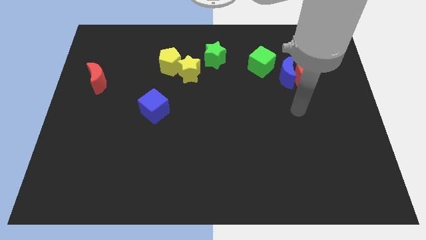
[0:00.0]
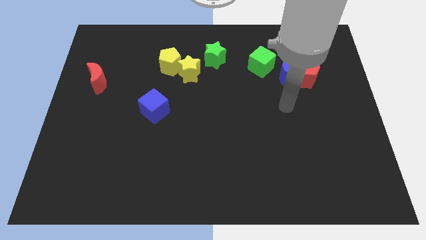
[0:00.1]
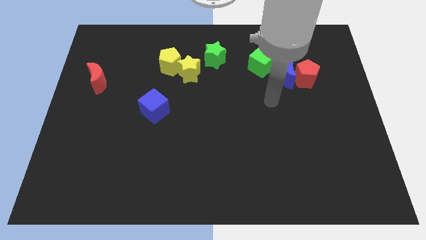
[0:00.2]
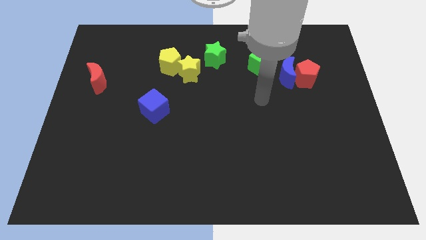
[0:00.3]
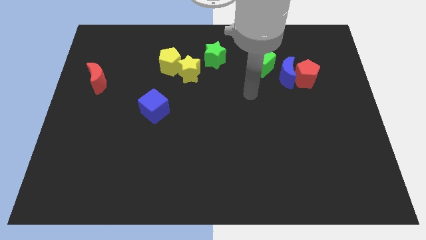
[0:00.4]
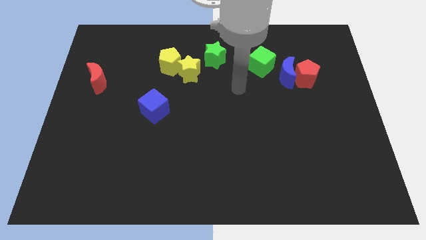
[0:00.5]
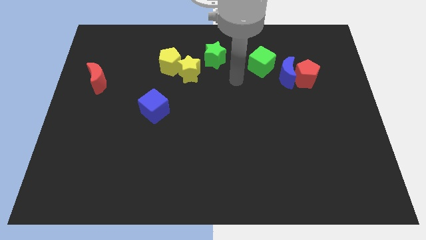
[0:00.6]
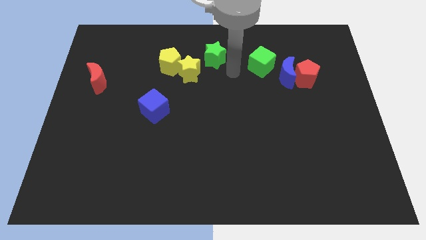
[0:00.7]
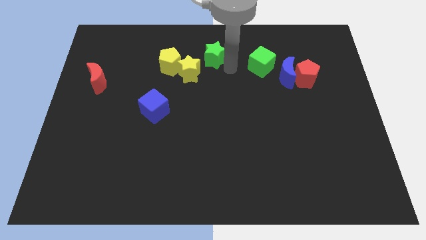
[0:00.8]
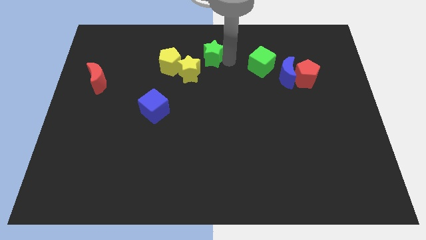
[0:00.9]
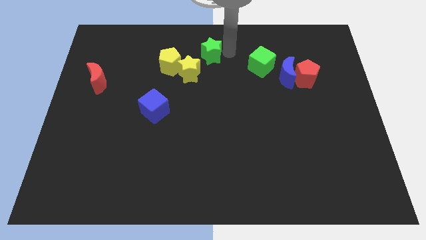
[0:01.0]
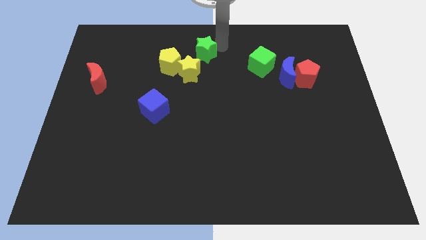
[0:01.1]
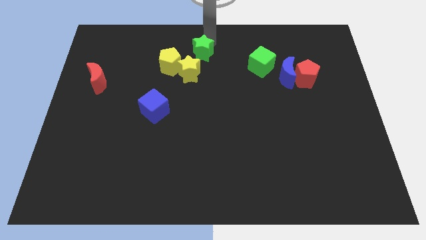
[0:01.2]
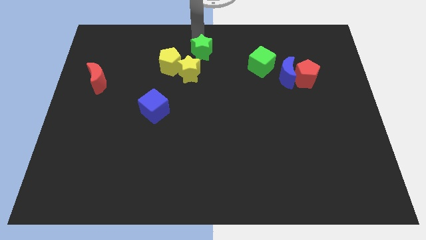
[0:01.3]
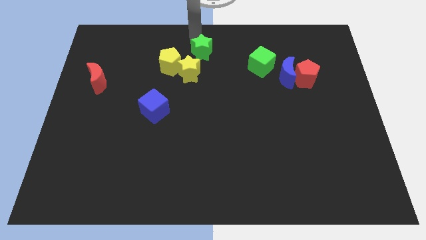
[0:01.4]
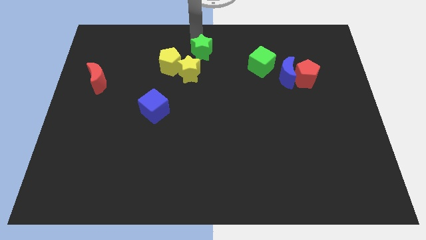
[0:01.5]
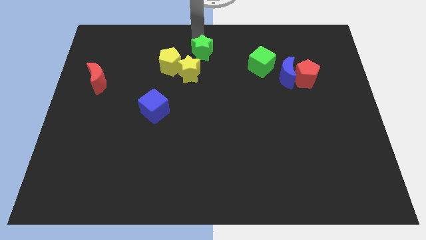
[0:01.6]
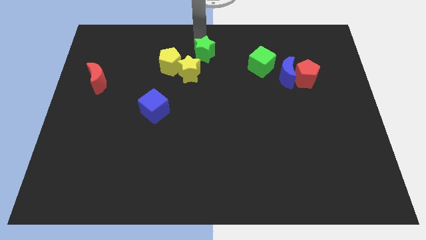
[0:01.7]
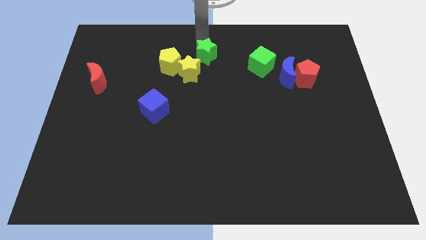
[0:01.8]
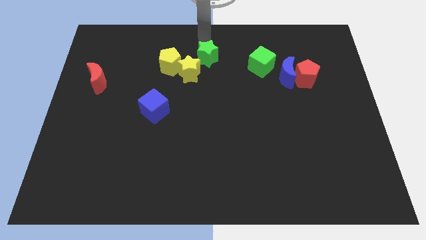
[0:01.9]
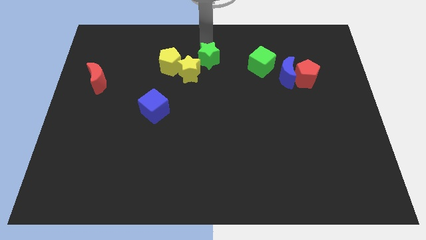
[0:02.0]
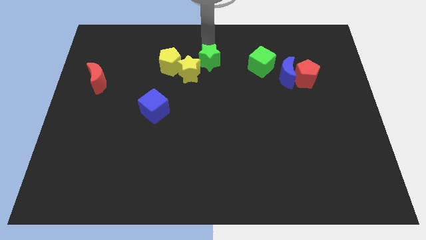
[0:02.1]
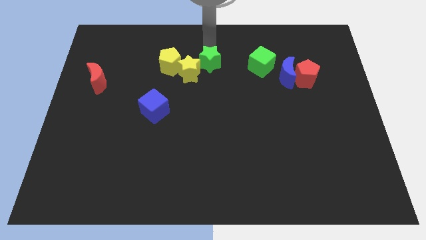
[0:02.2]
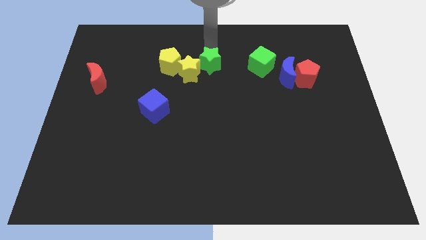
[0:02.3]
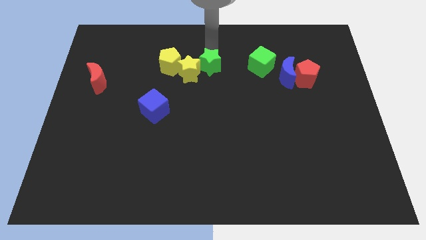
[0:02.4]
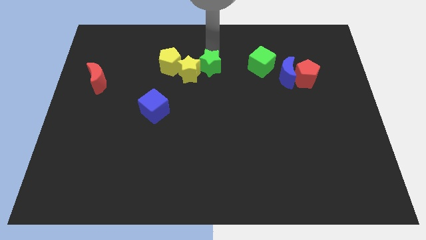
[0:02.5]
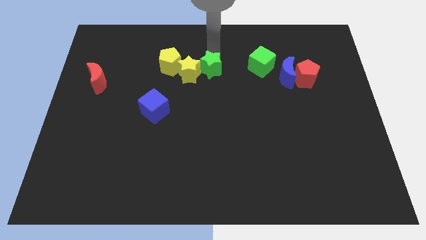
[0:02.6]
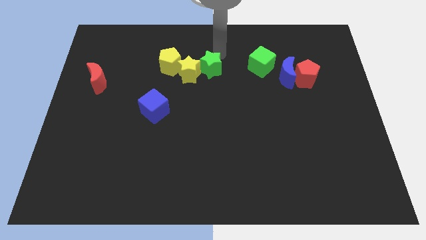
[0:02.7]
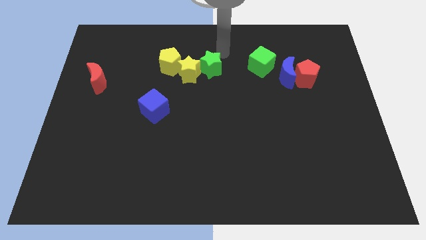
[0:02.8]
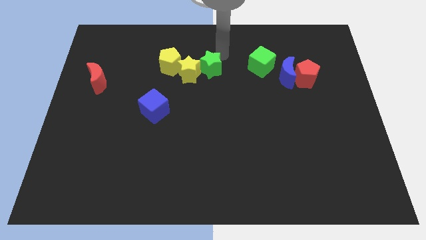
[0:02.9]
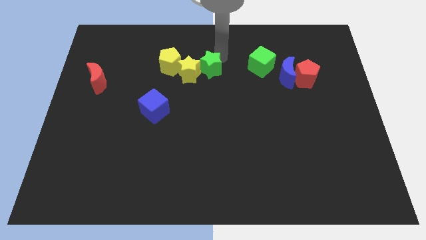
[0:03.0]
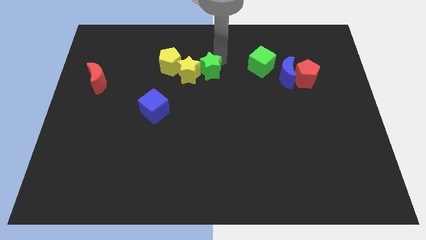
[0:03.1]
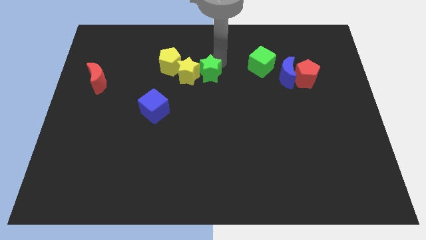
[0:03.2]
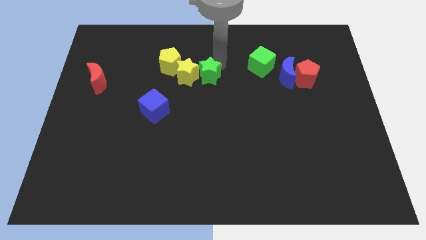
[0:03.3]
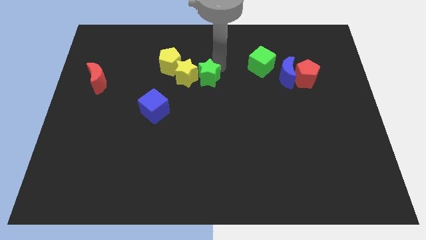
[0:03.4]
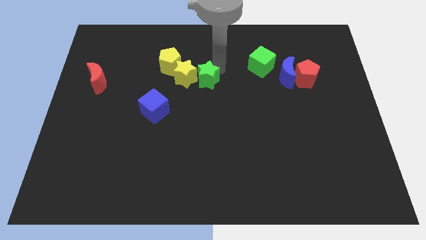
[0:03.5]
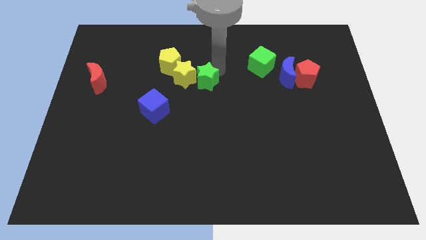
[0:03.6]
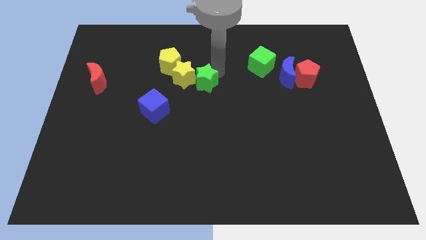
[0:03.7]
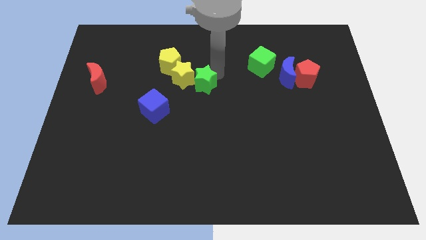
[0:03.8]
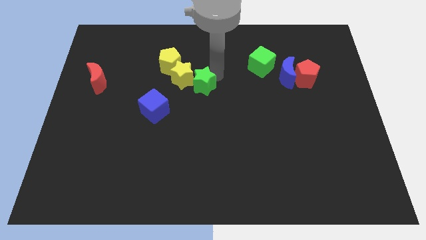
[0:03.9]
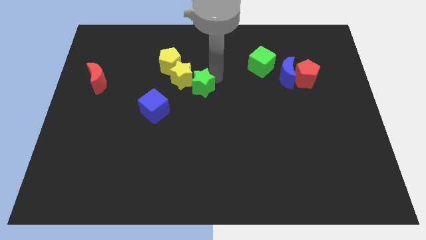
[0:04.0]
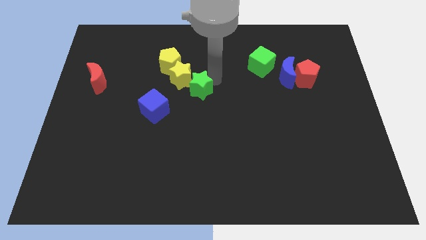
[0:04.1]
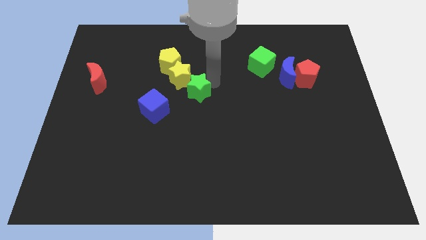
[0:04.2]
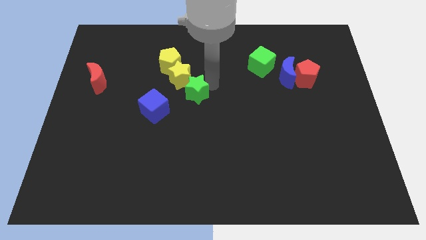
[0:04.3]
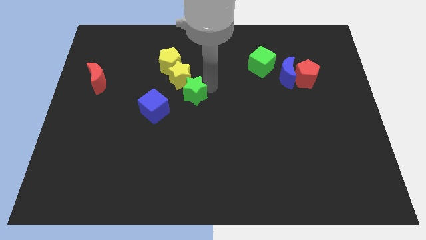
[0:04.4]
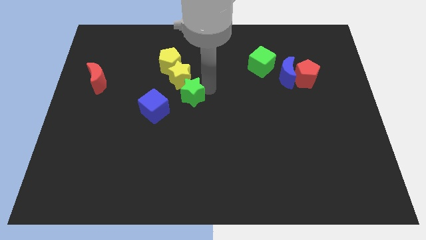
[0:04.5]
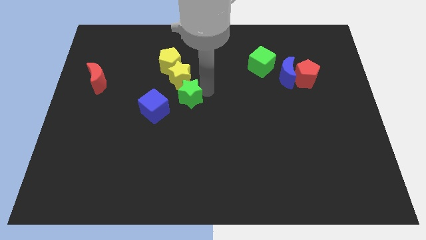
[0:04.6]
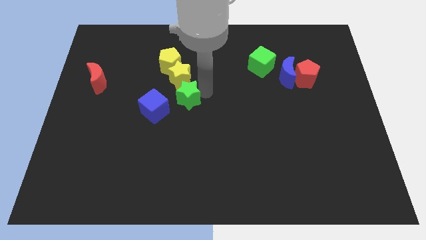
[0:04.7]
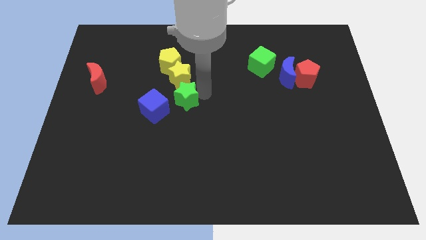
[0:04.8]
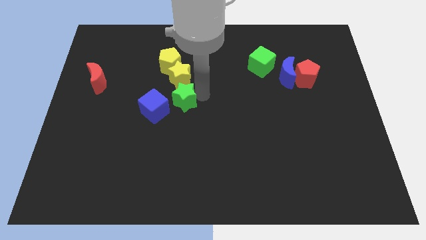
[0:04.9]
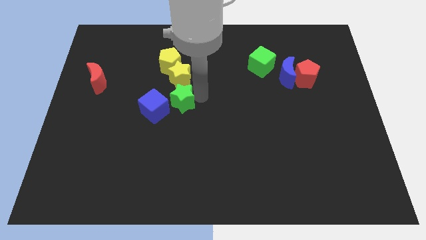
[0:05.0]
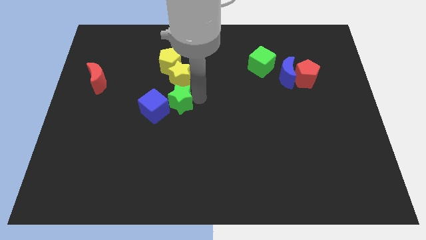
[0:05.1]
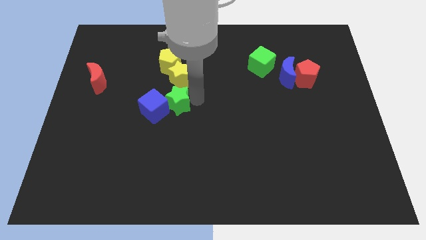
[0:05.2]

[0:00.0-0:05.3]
move the green star close to the blue cube

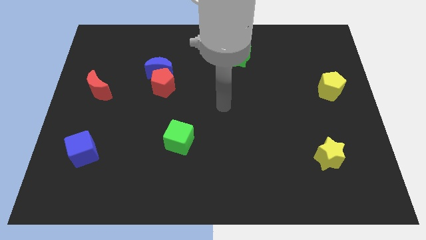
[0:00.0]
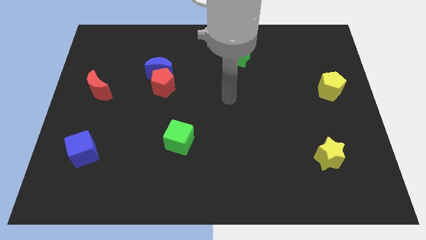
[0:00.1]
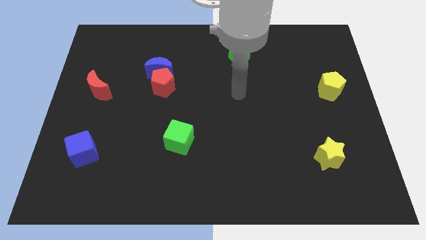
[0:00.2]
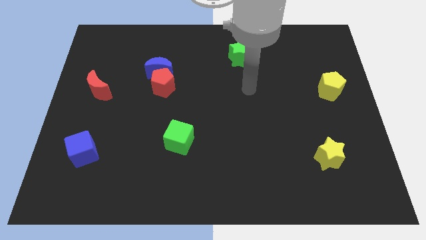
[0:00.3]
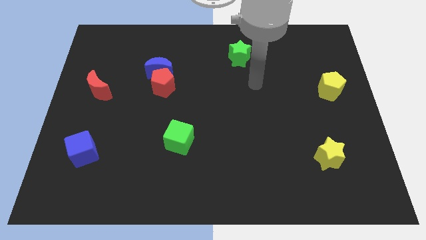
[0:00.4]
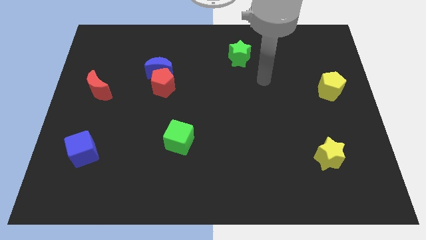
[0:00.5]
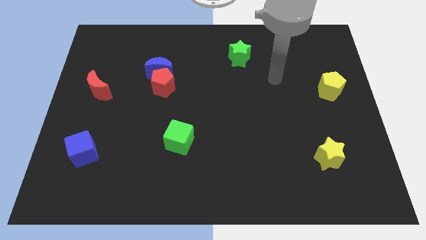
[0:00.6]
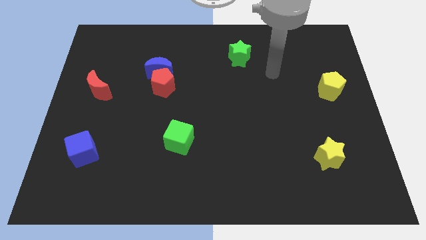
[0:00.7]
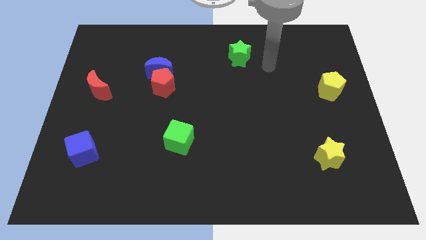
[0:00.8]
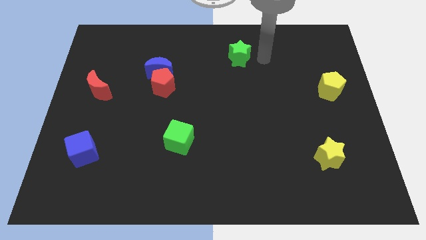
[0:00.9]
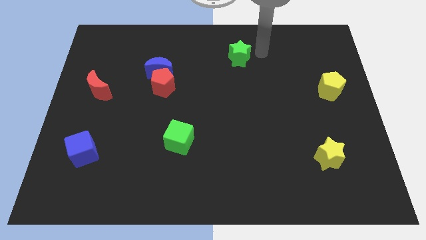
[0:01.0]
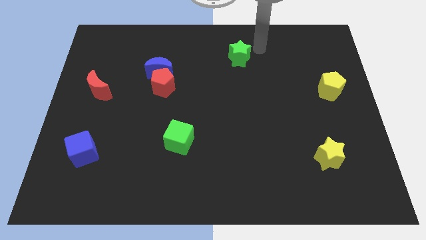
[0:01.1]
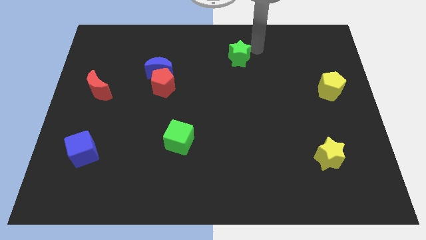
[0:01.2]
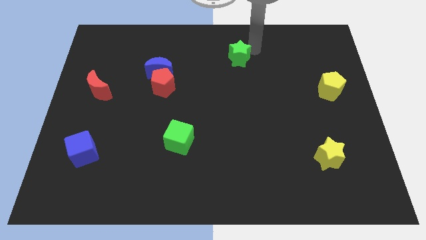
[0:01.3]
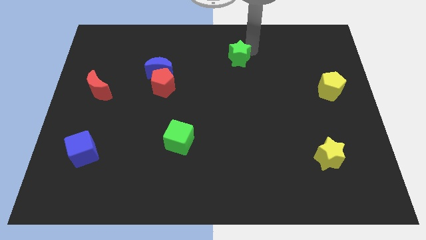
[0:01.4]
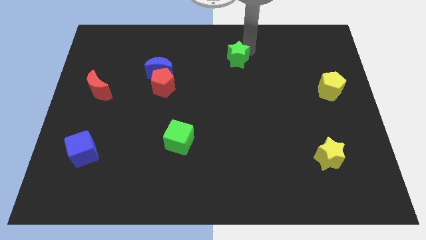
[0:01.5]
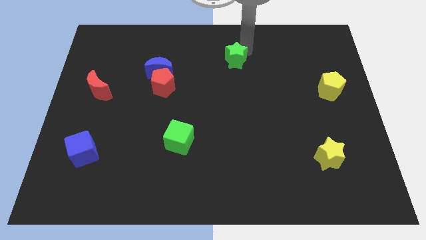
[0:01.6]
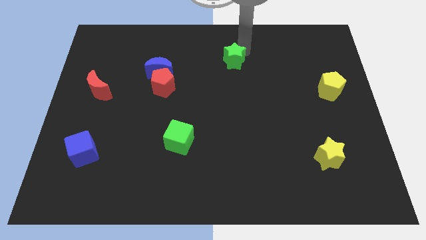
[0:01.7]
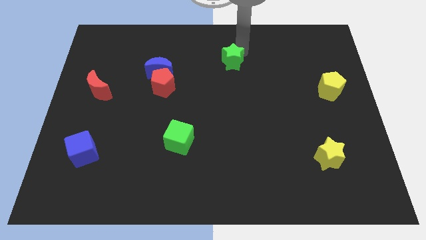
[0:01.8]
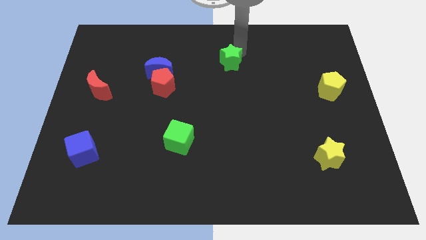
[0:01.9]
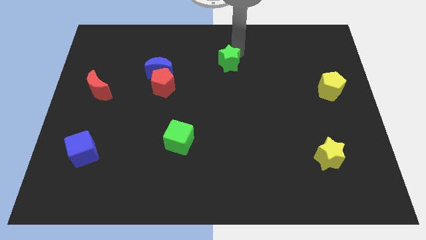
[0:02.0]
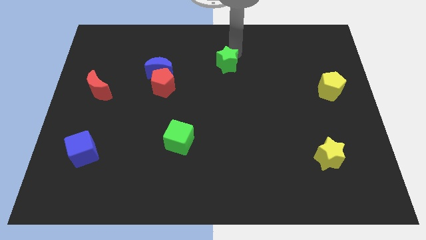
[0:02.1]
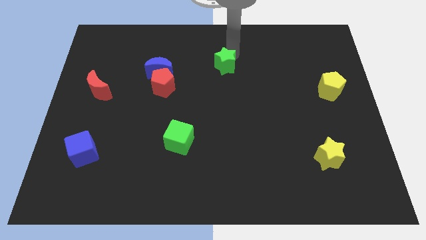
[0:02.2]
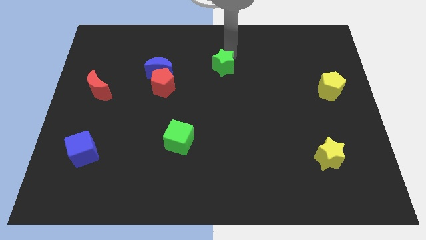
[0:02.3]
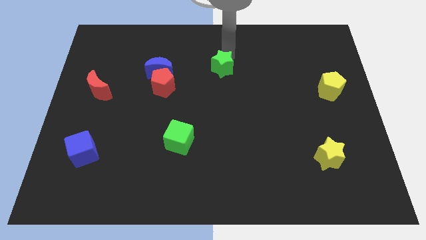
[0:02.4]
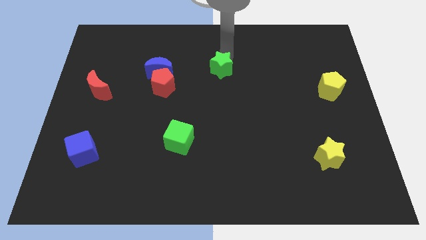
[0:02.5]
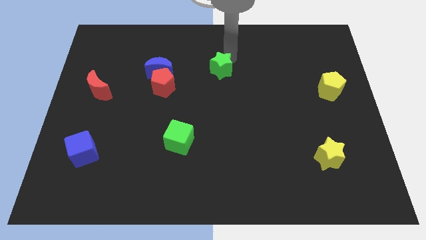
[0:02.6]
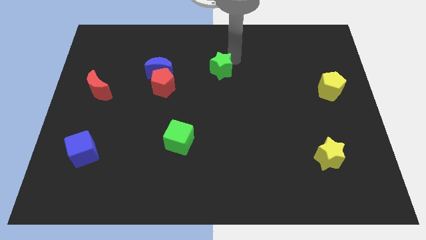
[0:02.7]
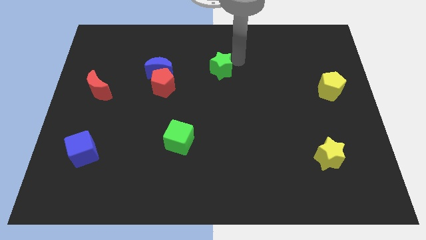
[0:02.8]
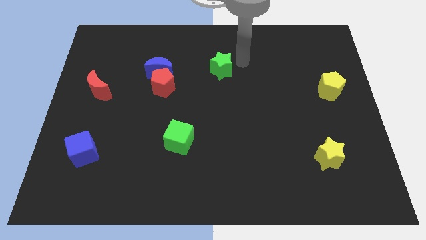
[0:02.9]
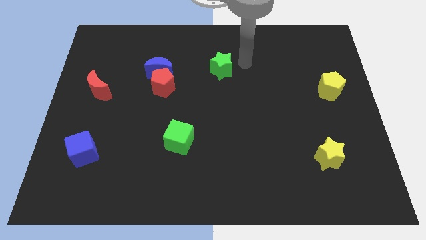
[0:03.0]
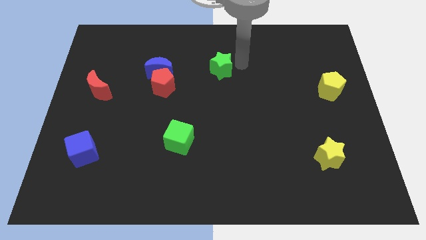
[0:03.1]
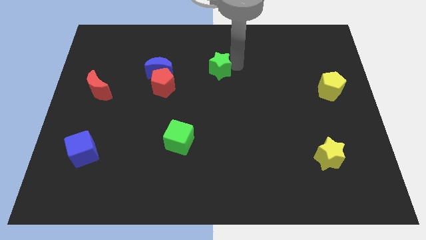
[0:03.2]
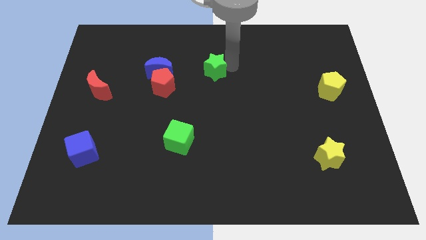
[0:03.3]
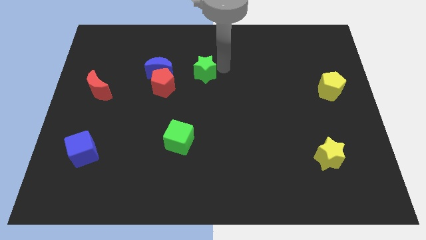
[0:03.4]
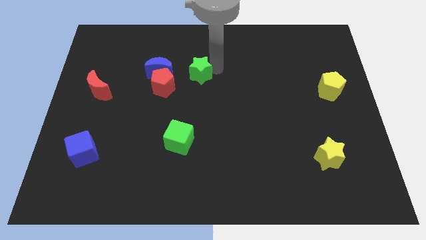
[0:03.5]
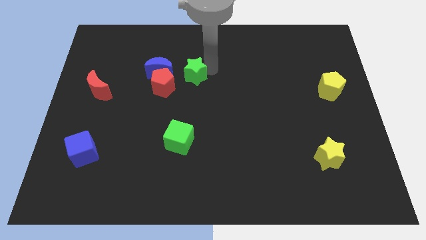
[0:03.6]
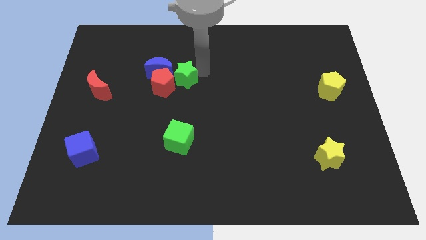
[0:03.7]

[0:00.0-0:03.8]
push the green star towards the red pentagon
